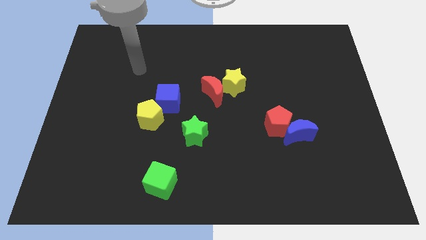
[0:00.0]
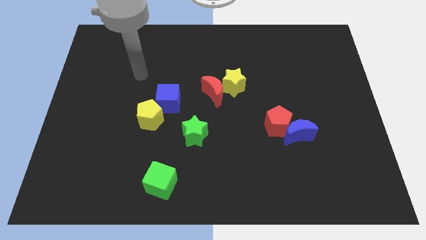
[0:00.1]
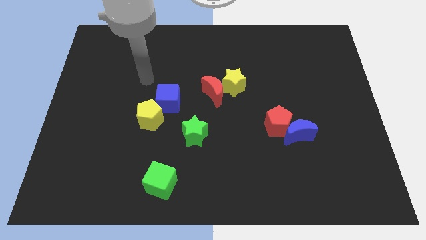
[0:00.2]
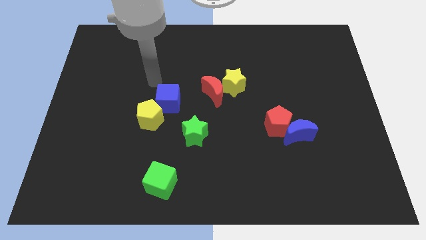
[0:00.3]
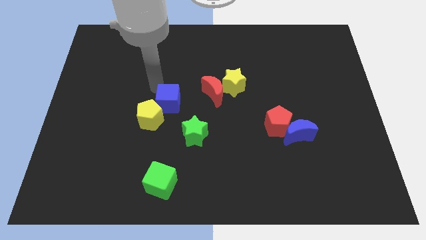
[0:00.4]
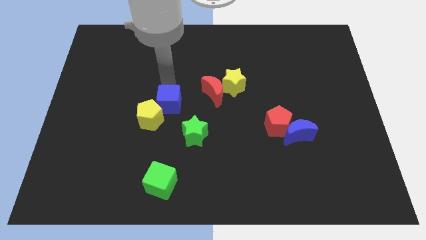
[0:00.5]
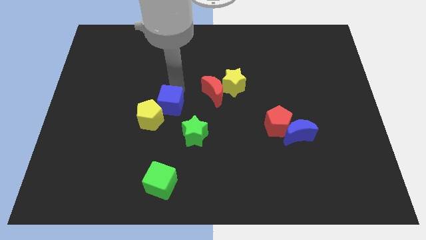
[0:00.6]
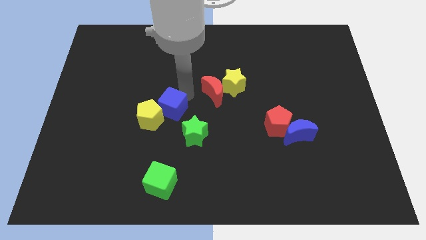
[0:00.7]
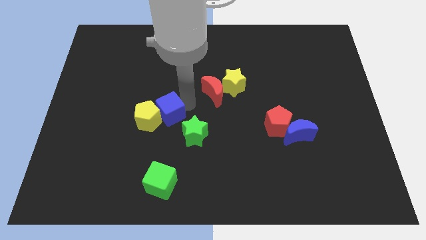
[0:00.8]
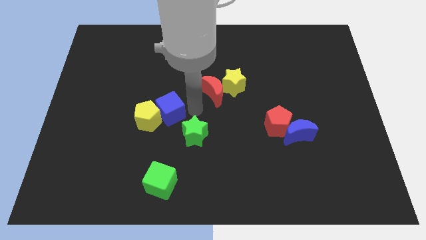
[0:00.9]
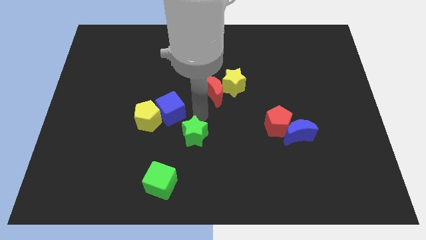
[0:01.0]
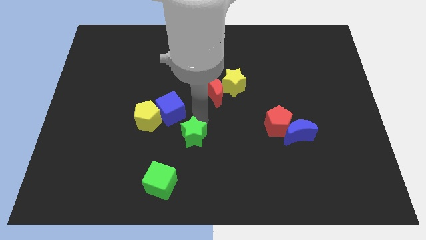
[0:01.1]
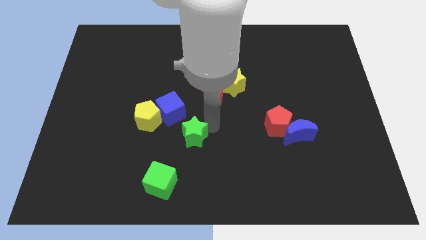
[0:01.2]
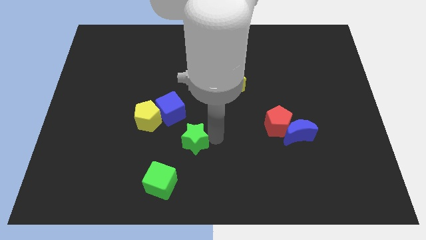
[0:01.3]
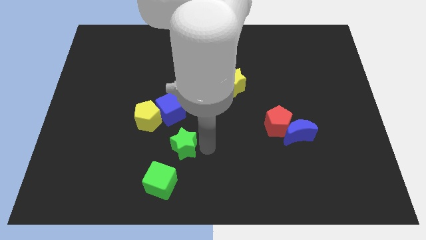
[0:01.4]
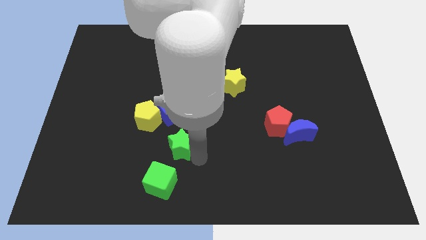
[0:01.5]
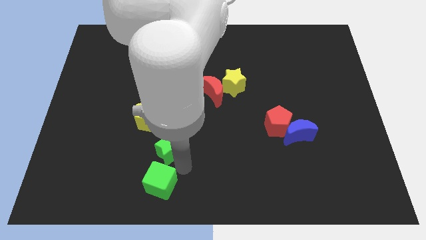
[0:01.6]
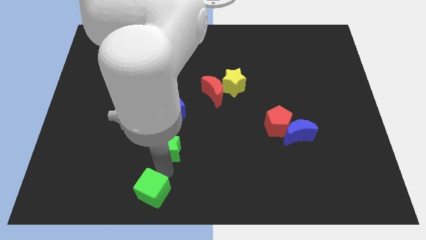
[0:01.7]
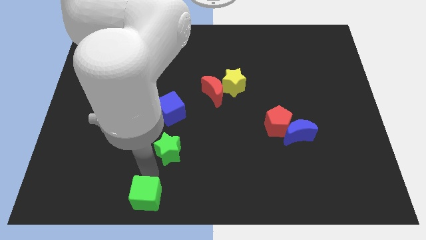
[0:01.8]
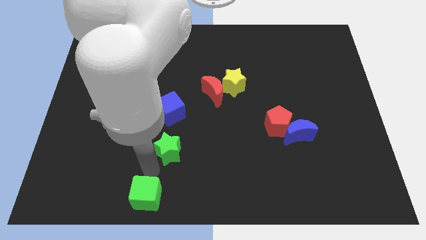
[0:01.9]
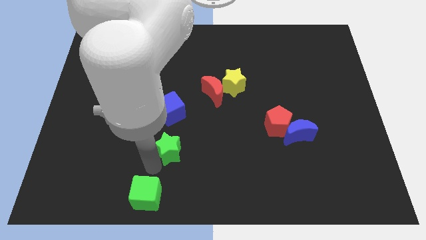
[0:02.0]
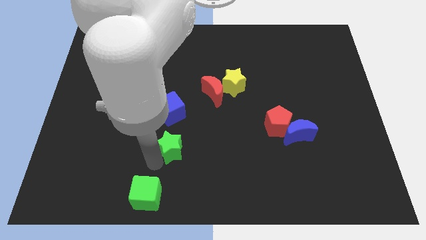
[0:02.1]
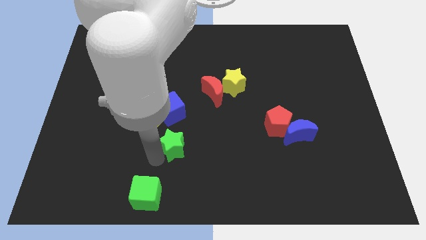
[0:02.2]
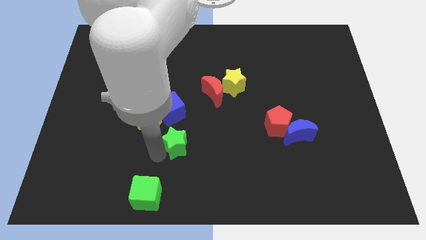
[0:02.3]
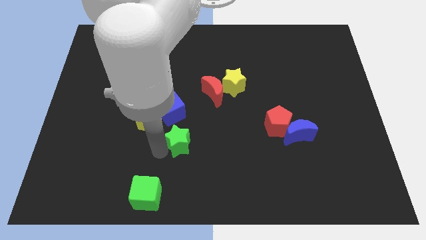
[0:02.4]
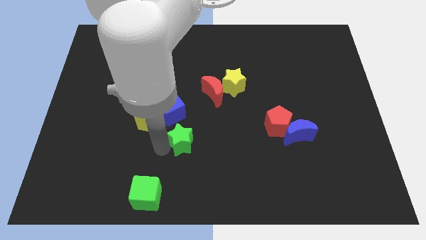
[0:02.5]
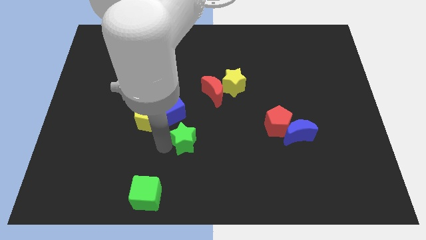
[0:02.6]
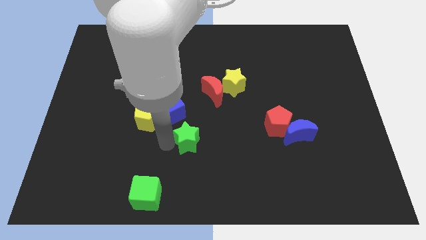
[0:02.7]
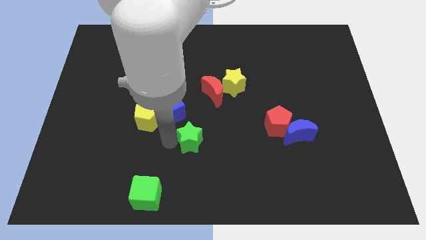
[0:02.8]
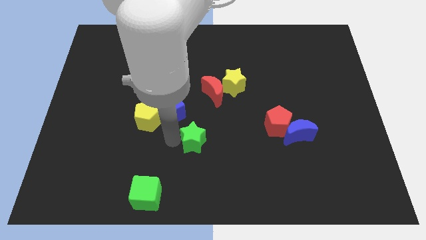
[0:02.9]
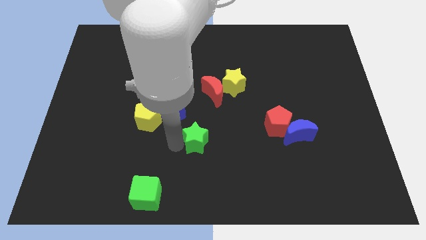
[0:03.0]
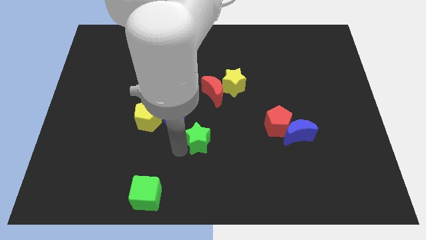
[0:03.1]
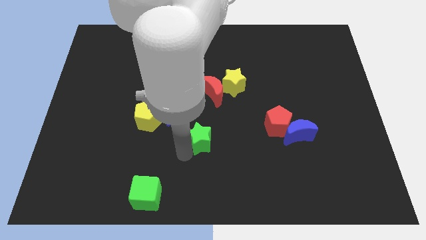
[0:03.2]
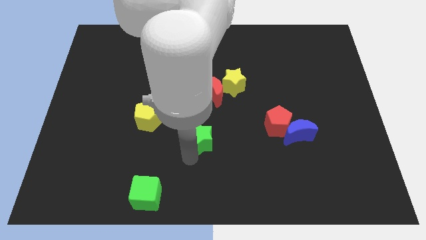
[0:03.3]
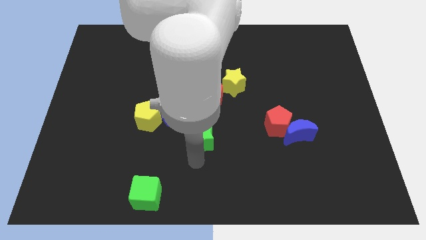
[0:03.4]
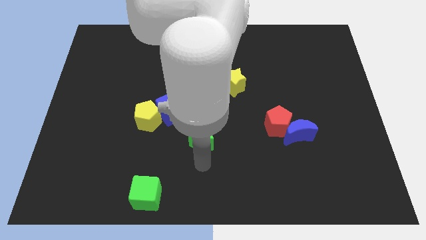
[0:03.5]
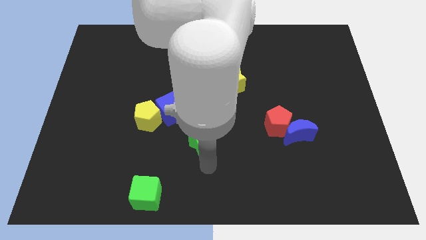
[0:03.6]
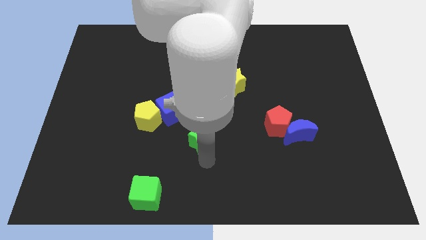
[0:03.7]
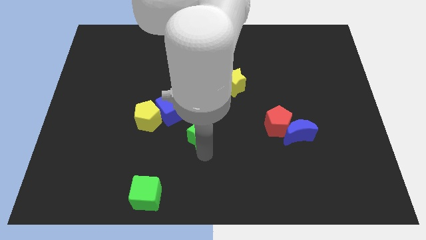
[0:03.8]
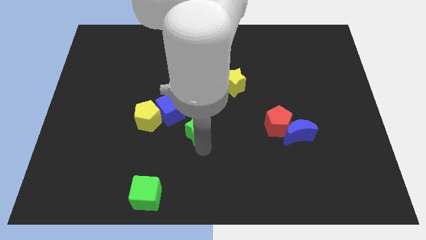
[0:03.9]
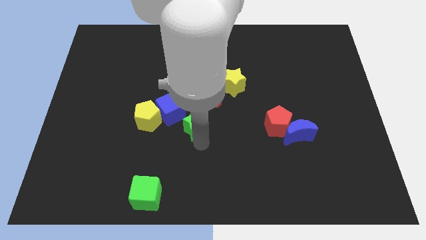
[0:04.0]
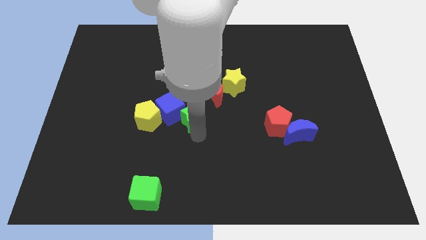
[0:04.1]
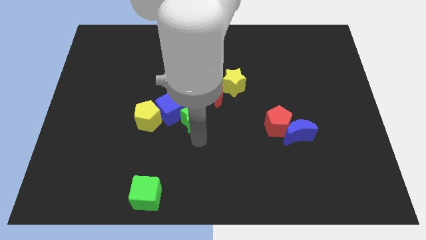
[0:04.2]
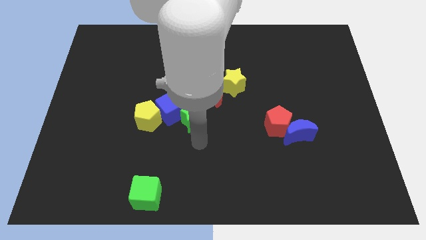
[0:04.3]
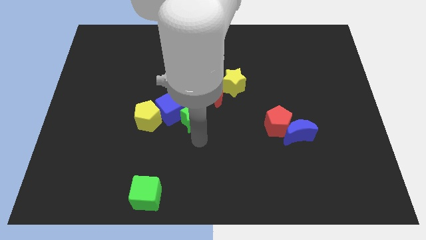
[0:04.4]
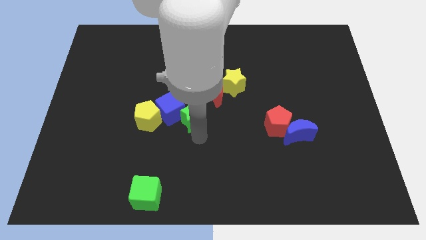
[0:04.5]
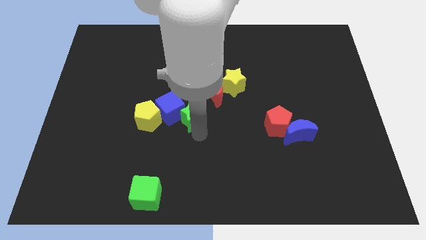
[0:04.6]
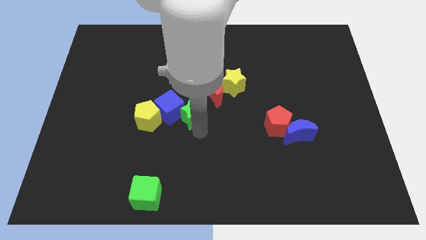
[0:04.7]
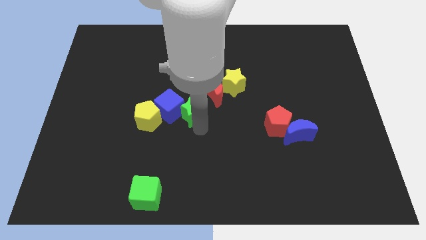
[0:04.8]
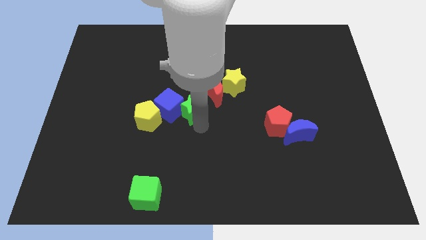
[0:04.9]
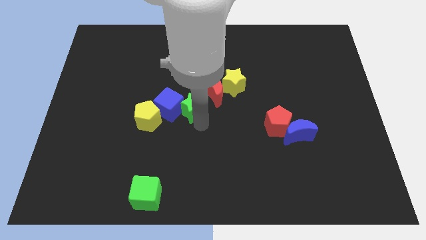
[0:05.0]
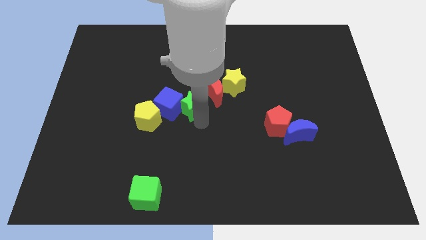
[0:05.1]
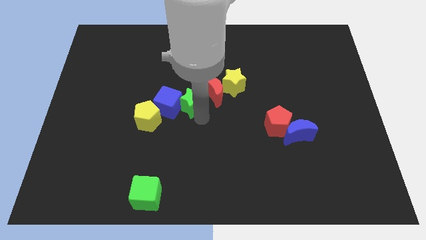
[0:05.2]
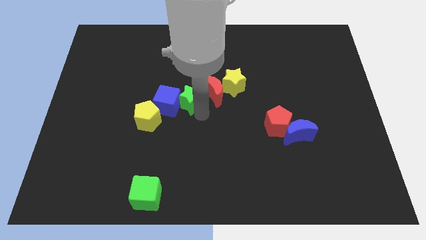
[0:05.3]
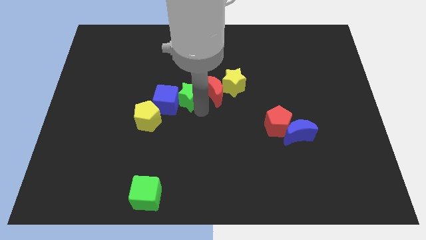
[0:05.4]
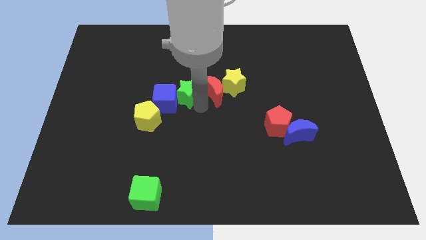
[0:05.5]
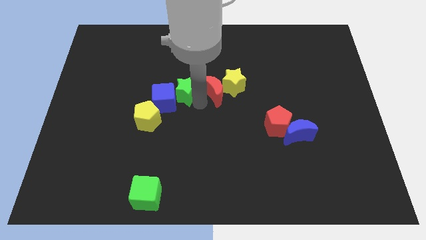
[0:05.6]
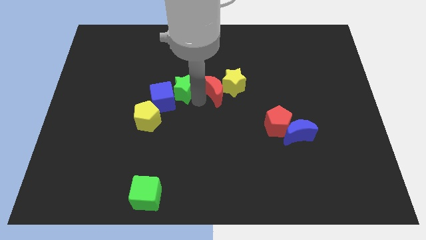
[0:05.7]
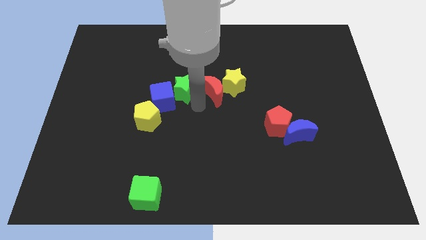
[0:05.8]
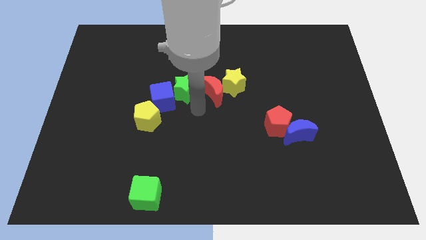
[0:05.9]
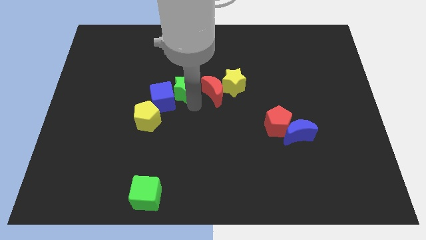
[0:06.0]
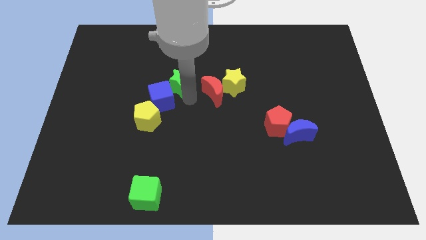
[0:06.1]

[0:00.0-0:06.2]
put the green star to the top of the blue cube
